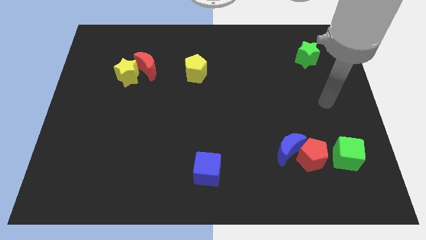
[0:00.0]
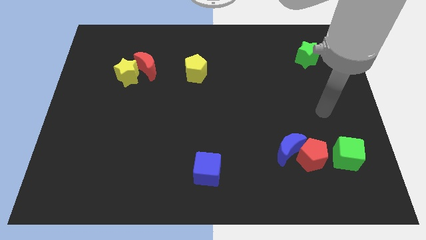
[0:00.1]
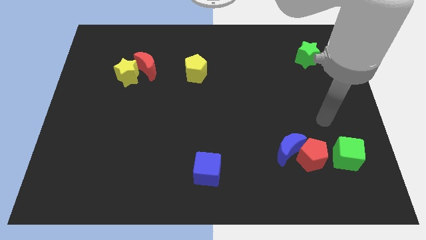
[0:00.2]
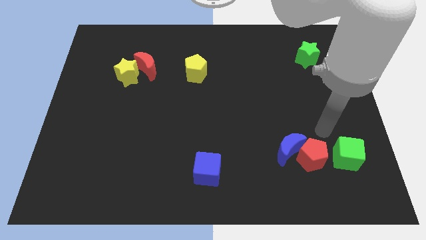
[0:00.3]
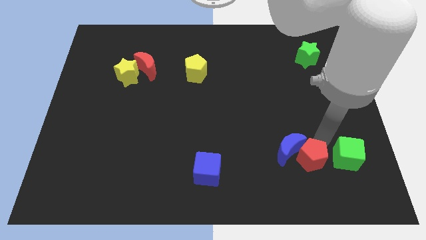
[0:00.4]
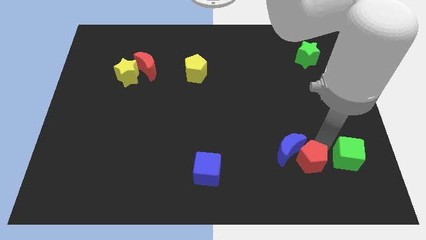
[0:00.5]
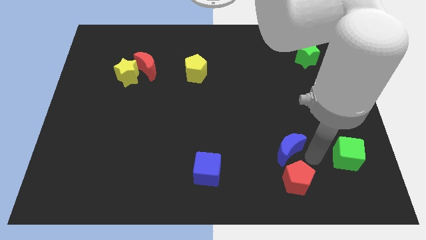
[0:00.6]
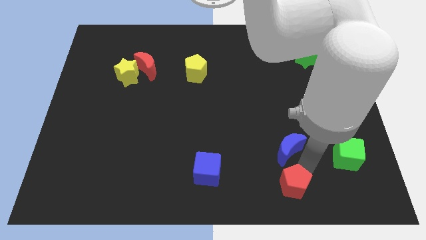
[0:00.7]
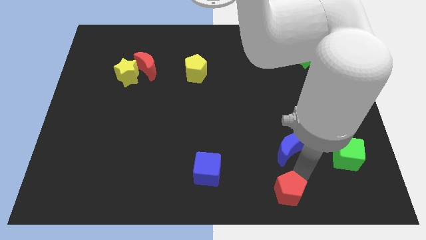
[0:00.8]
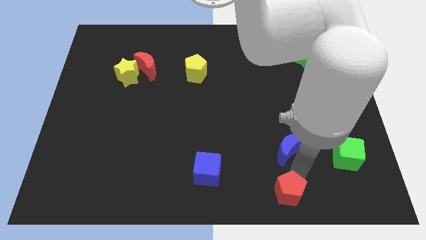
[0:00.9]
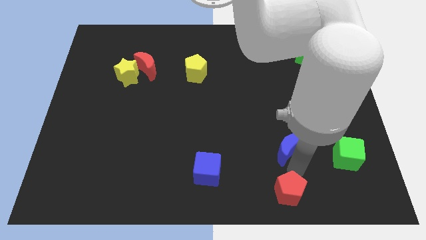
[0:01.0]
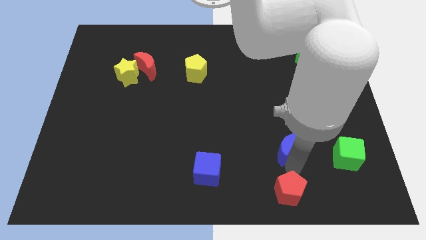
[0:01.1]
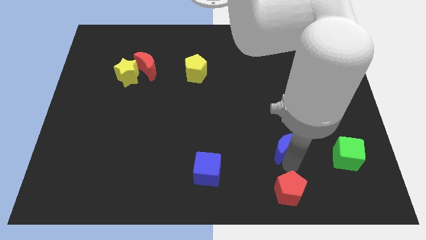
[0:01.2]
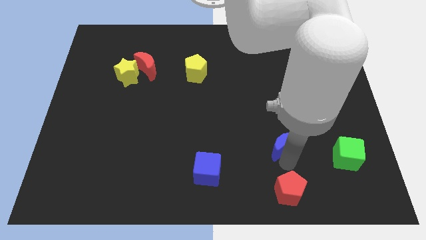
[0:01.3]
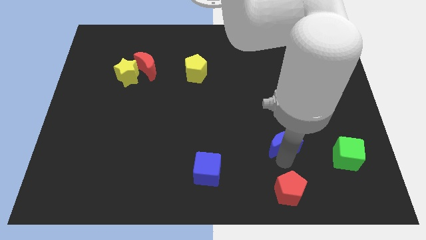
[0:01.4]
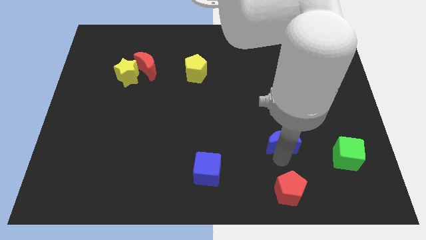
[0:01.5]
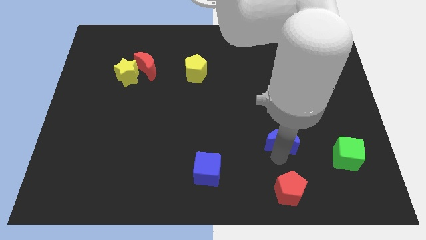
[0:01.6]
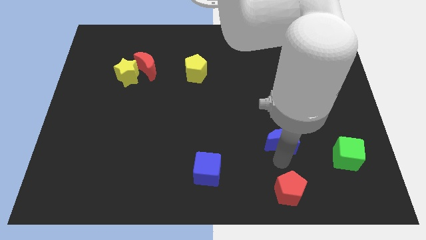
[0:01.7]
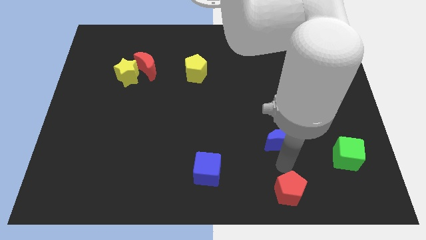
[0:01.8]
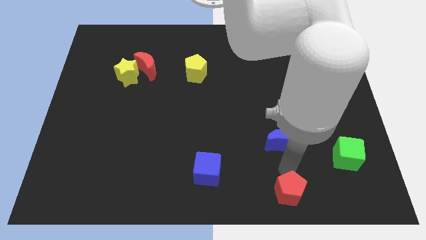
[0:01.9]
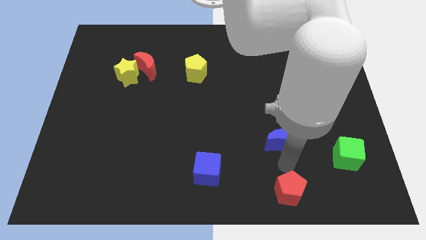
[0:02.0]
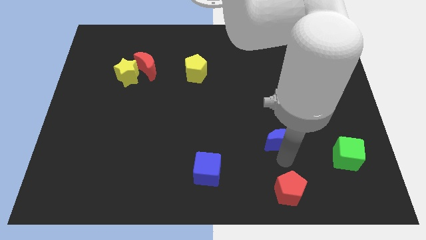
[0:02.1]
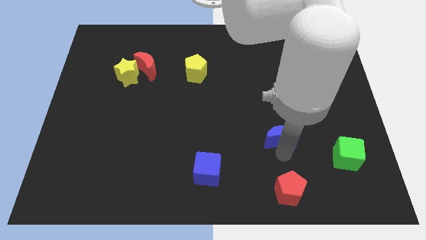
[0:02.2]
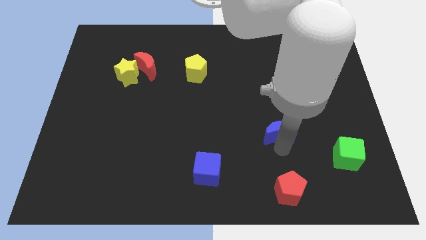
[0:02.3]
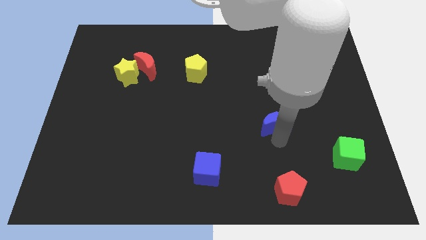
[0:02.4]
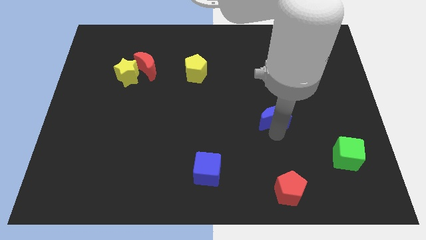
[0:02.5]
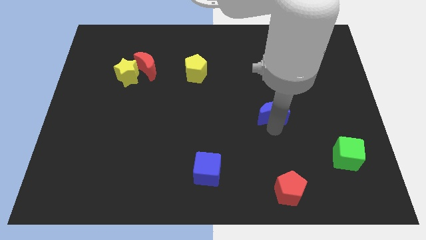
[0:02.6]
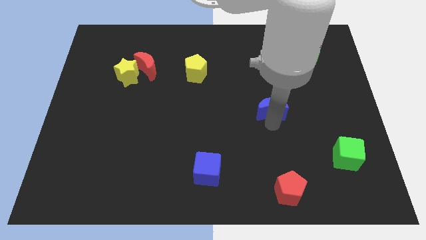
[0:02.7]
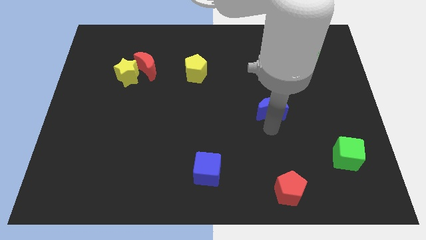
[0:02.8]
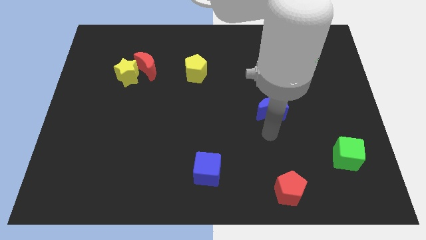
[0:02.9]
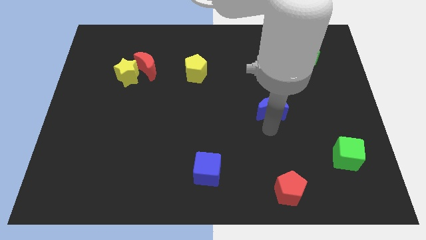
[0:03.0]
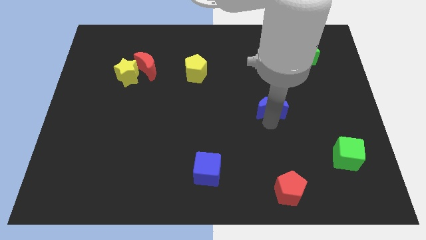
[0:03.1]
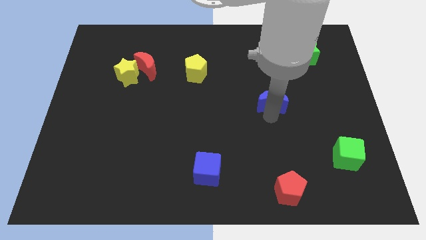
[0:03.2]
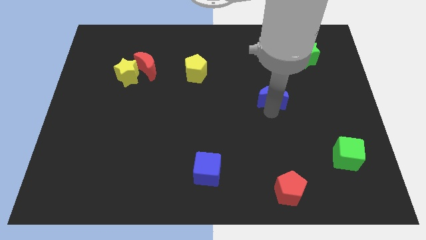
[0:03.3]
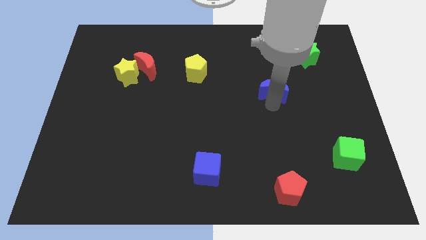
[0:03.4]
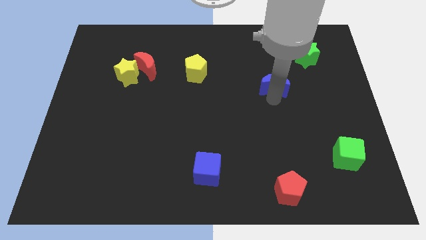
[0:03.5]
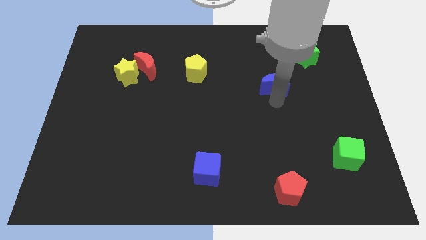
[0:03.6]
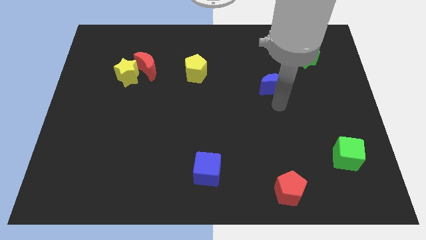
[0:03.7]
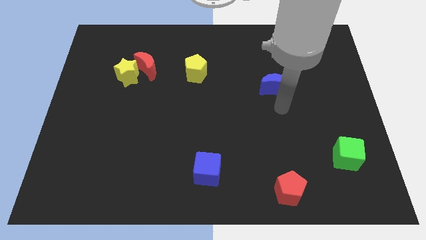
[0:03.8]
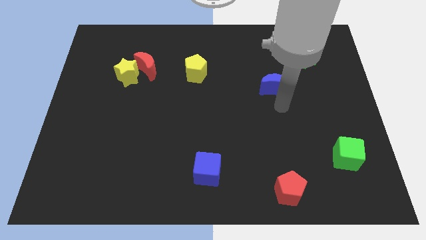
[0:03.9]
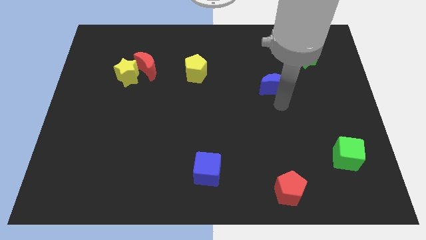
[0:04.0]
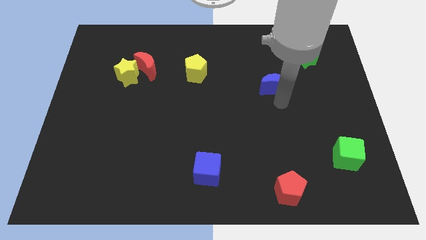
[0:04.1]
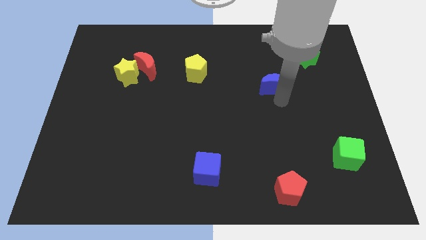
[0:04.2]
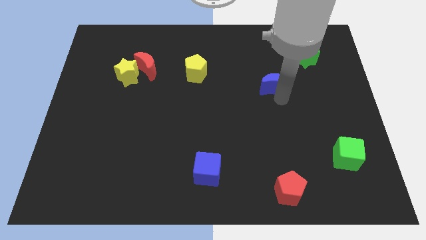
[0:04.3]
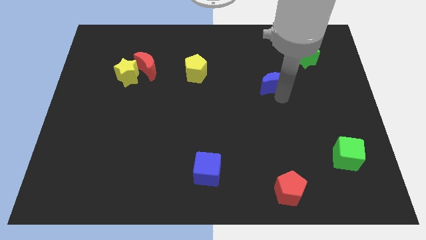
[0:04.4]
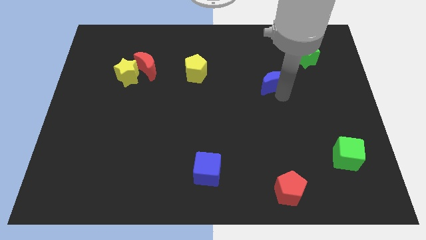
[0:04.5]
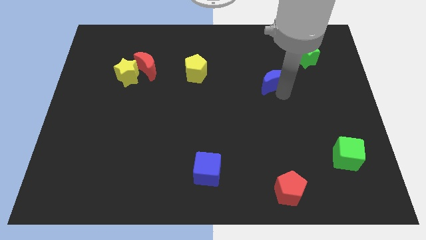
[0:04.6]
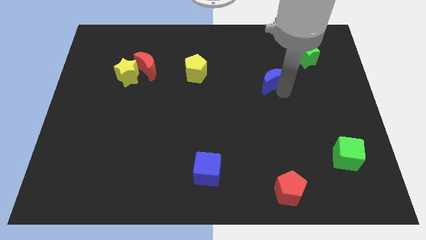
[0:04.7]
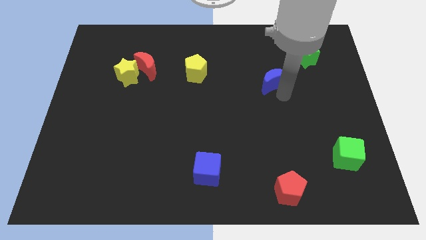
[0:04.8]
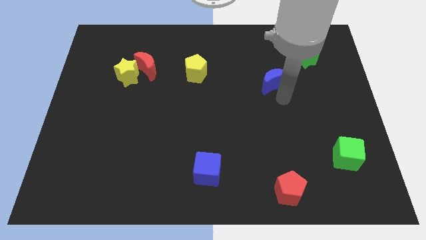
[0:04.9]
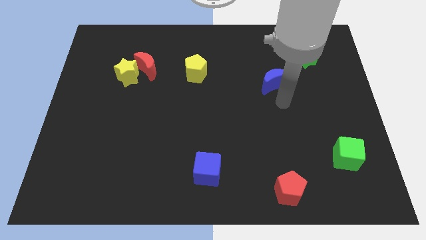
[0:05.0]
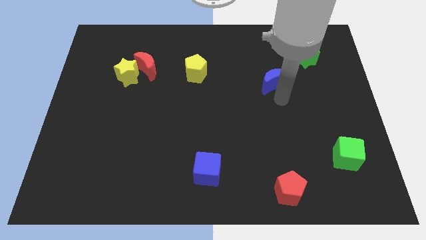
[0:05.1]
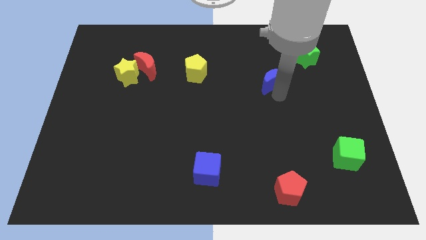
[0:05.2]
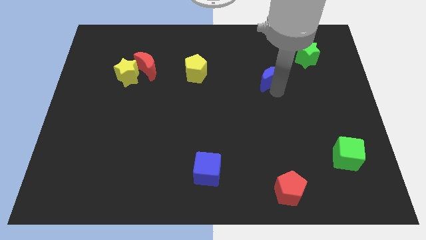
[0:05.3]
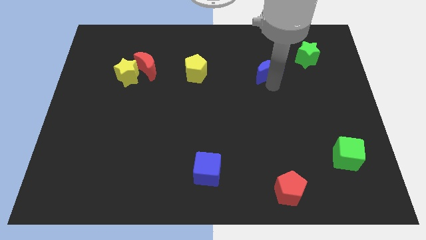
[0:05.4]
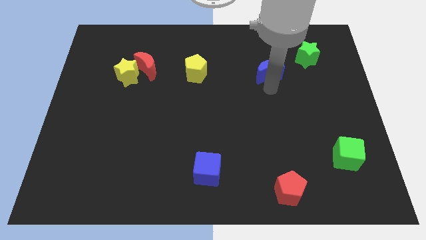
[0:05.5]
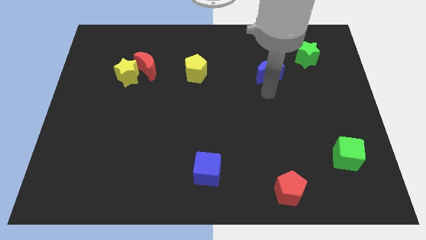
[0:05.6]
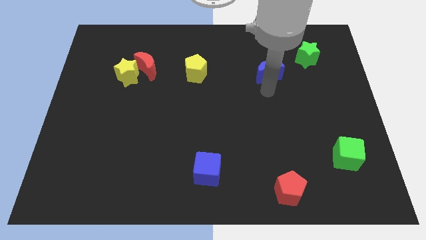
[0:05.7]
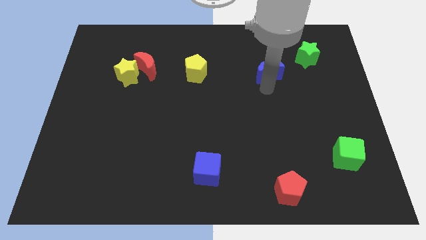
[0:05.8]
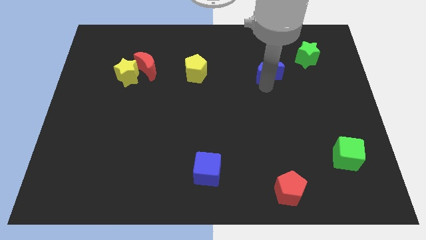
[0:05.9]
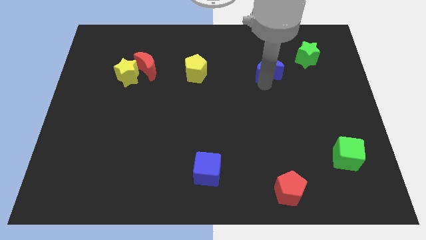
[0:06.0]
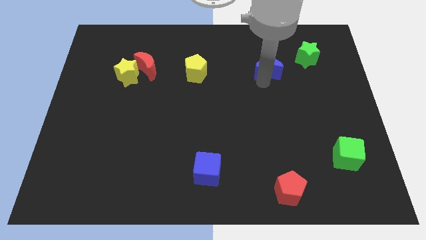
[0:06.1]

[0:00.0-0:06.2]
put the blue moon left of the green star

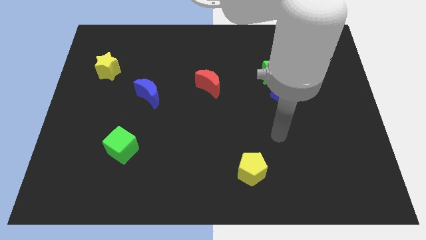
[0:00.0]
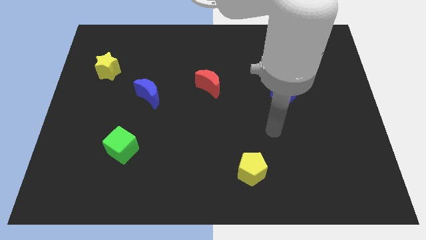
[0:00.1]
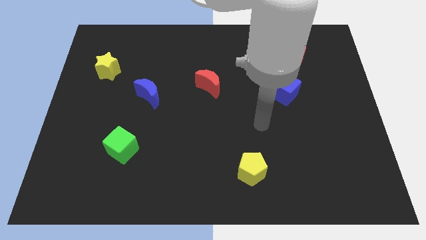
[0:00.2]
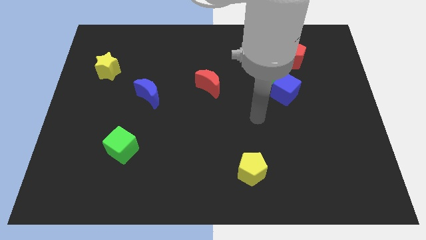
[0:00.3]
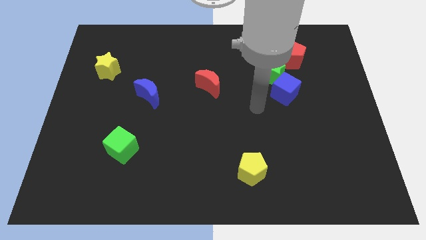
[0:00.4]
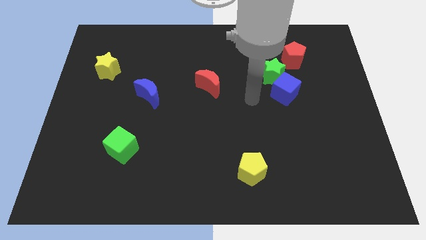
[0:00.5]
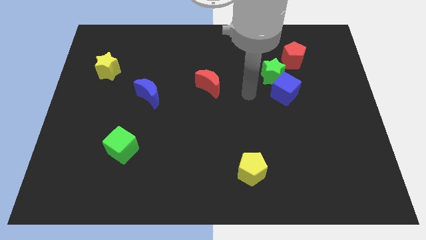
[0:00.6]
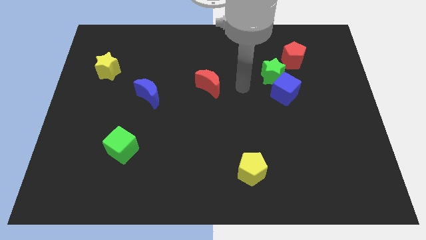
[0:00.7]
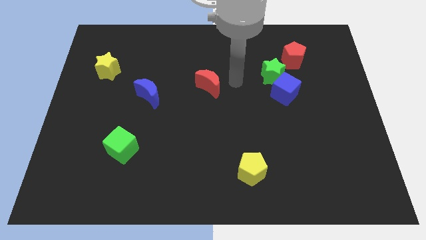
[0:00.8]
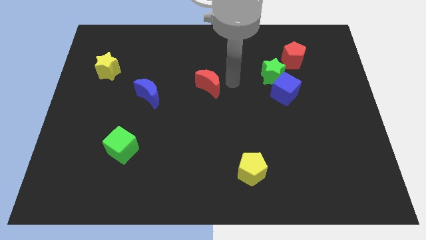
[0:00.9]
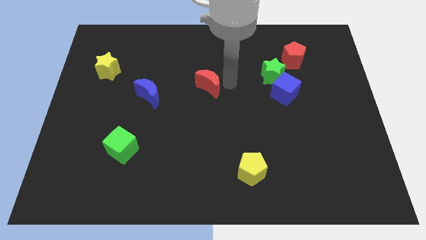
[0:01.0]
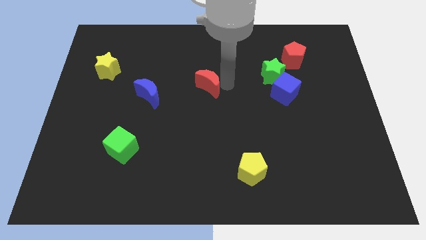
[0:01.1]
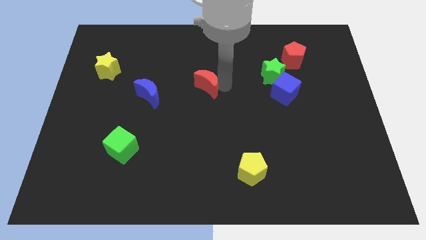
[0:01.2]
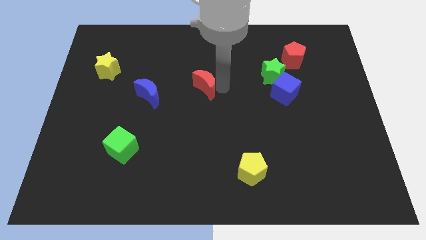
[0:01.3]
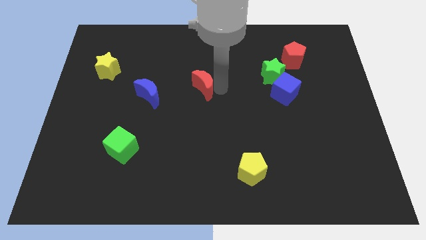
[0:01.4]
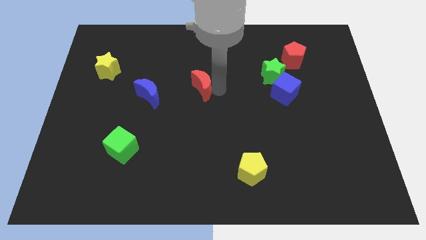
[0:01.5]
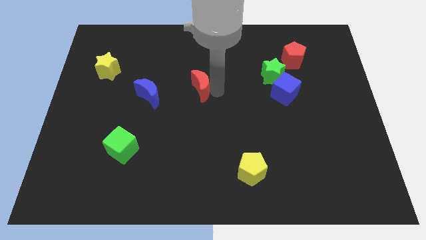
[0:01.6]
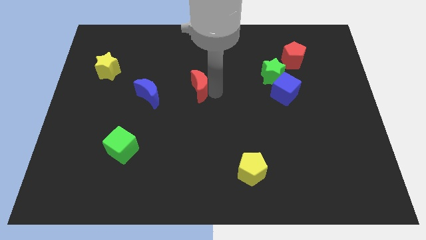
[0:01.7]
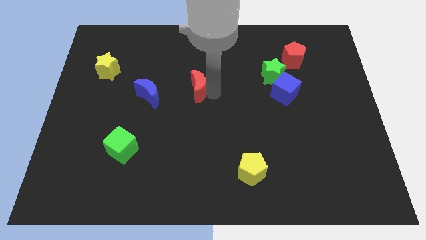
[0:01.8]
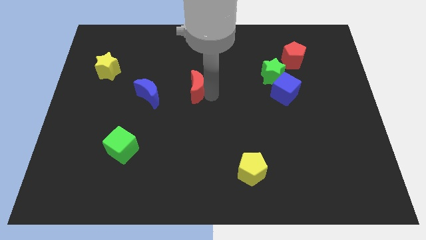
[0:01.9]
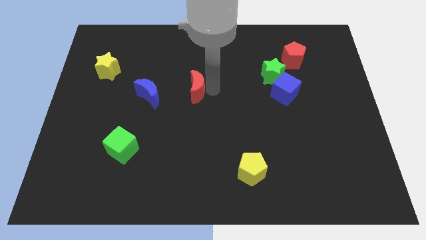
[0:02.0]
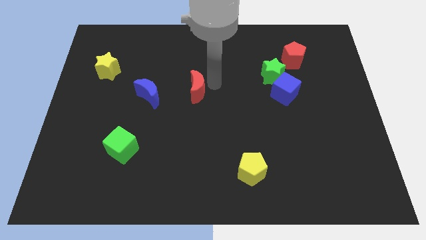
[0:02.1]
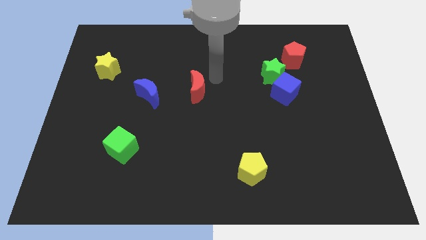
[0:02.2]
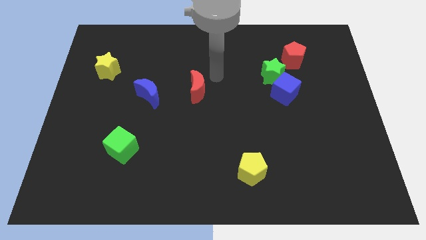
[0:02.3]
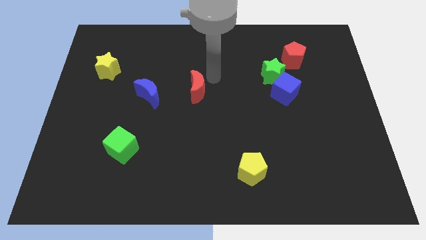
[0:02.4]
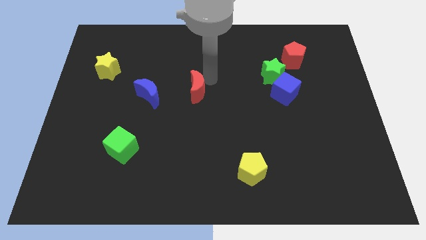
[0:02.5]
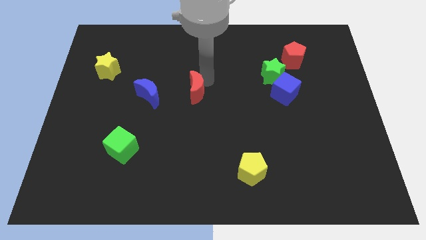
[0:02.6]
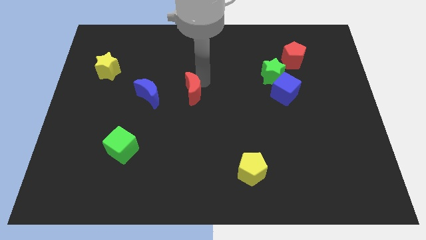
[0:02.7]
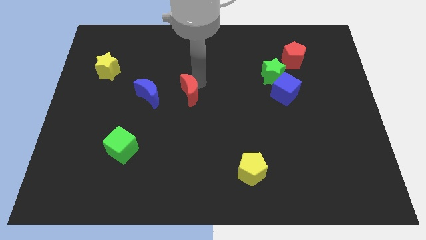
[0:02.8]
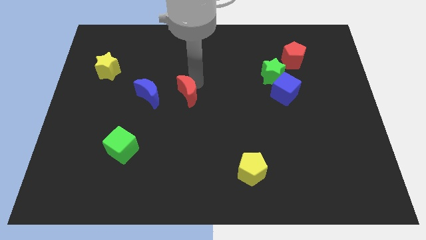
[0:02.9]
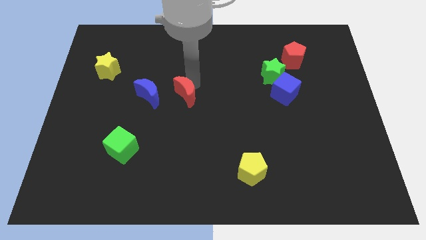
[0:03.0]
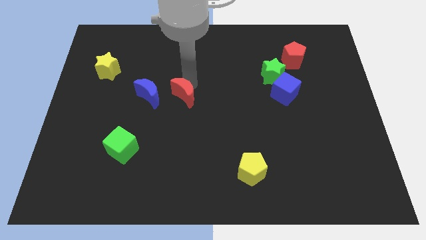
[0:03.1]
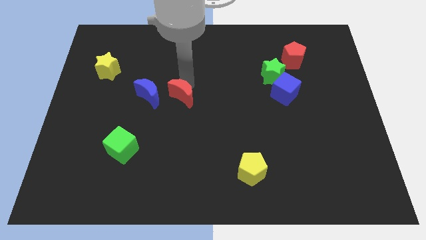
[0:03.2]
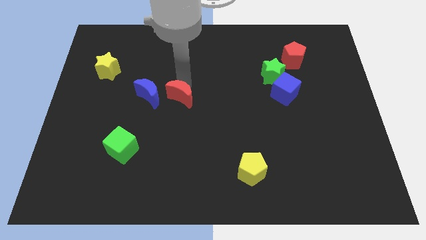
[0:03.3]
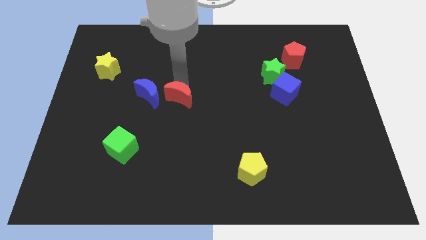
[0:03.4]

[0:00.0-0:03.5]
put the red moon diagonally down and to the right of the blue moon
